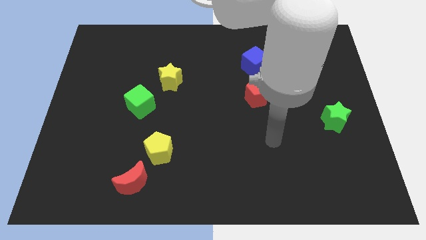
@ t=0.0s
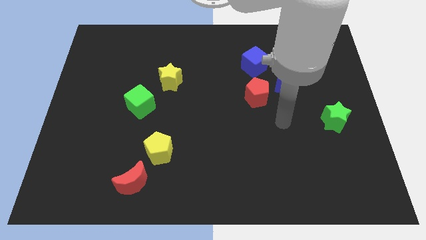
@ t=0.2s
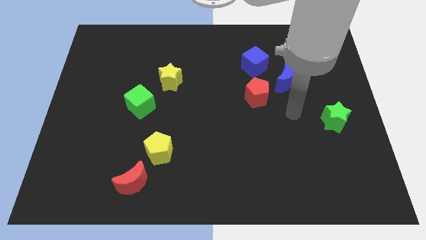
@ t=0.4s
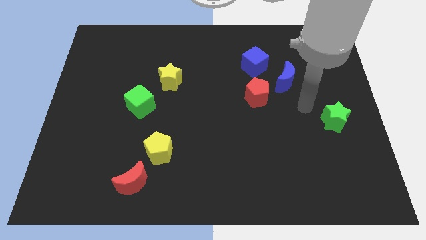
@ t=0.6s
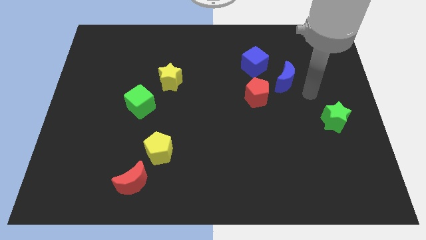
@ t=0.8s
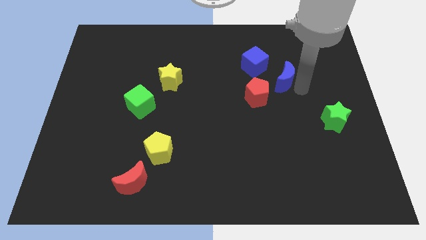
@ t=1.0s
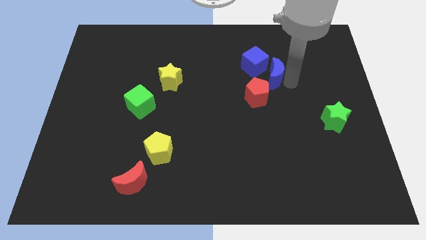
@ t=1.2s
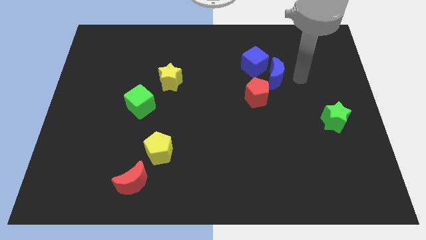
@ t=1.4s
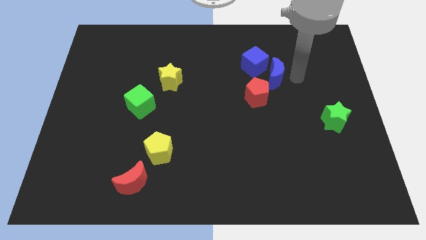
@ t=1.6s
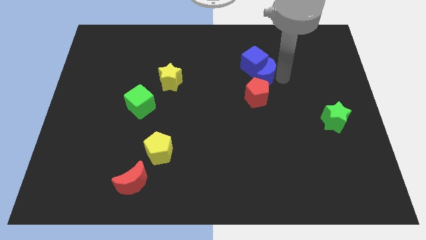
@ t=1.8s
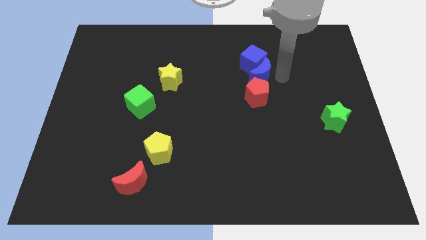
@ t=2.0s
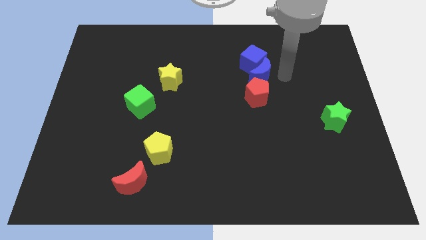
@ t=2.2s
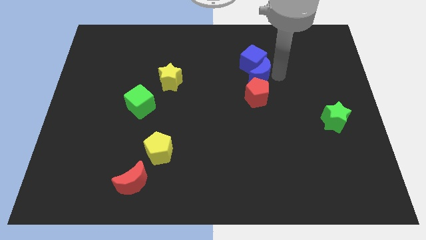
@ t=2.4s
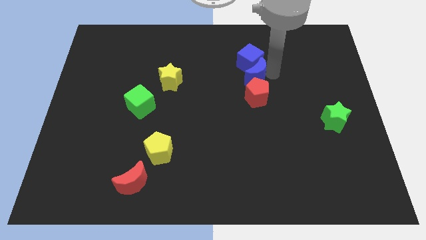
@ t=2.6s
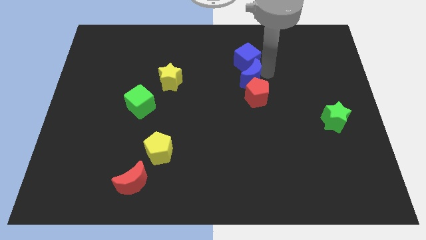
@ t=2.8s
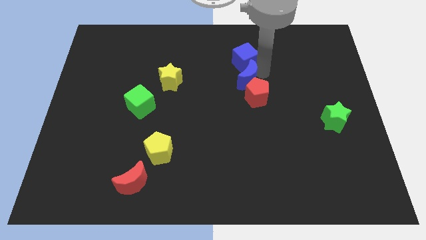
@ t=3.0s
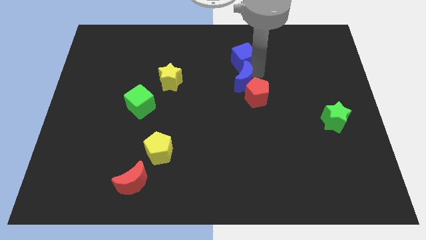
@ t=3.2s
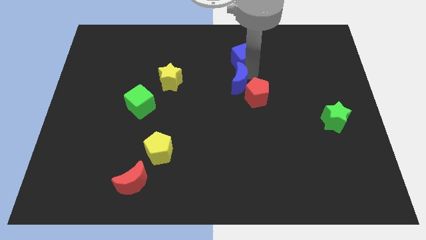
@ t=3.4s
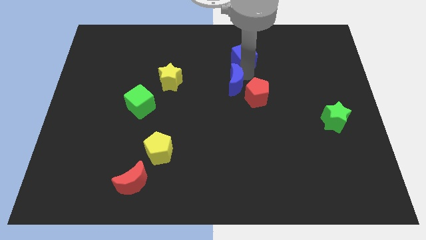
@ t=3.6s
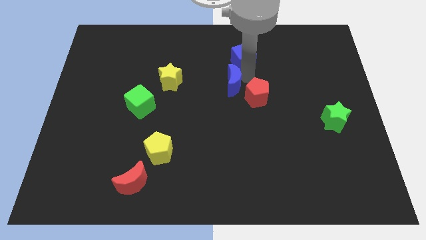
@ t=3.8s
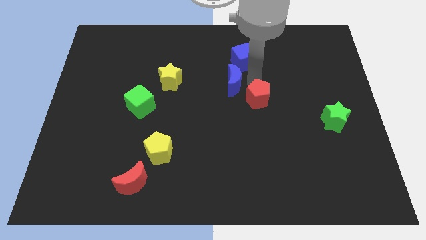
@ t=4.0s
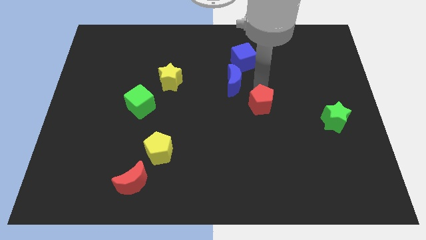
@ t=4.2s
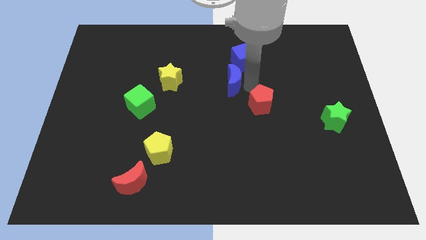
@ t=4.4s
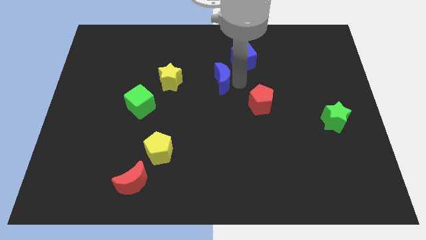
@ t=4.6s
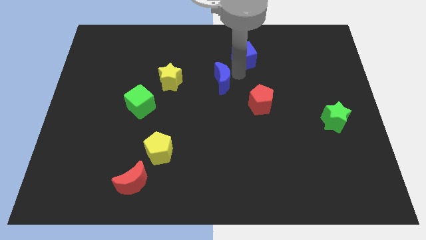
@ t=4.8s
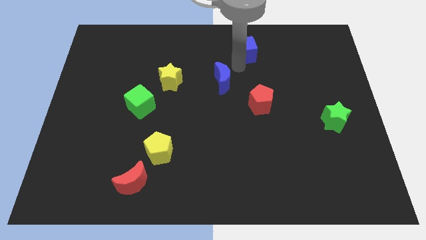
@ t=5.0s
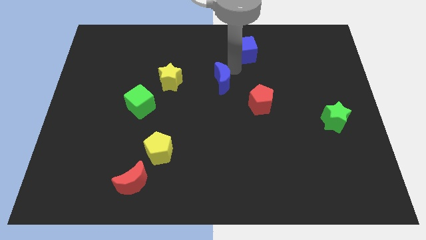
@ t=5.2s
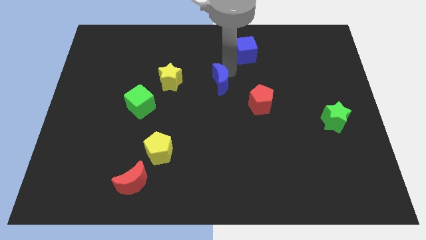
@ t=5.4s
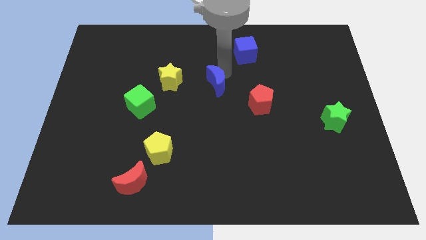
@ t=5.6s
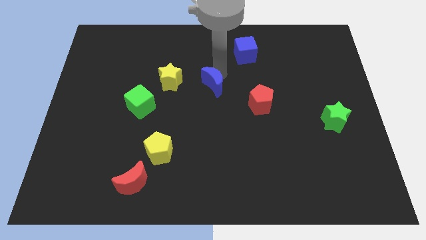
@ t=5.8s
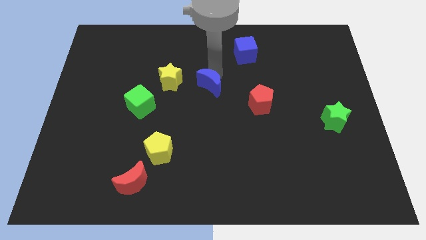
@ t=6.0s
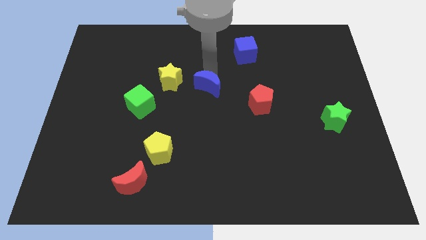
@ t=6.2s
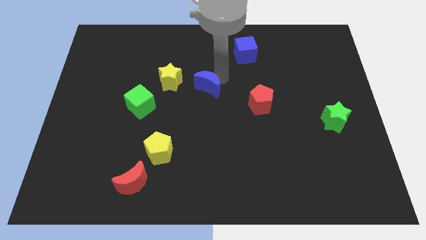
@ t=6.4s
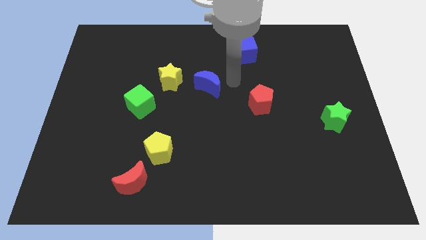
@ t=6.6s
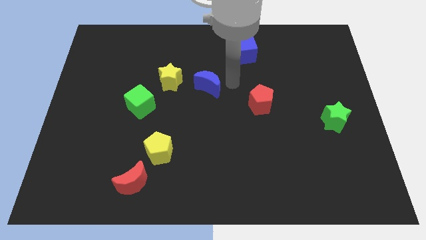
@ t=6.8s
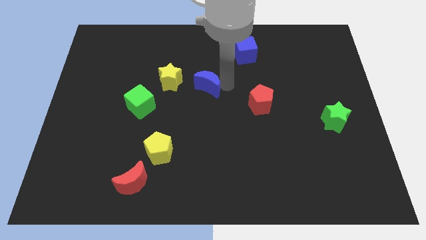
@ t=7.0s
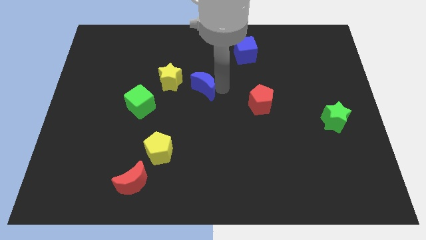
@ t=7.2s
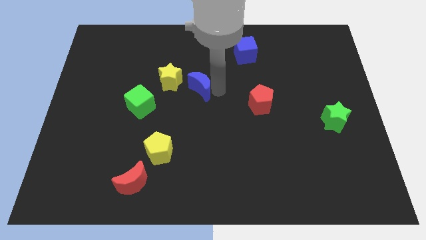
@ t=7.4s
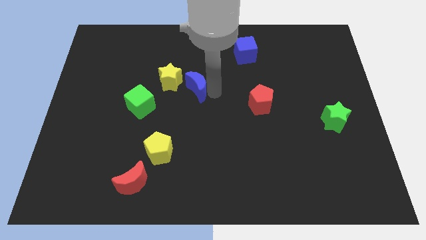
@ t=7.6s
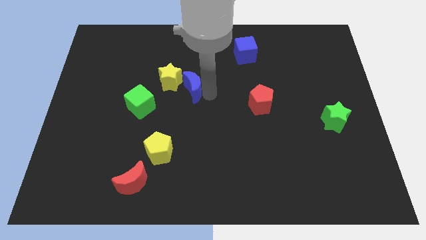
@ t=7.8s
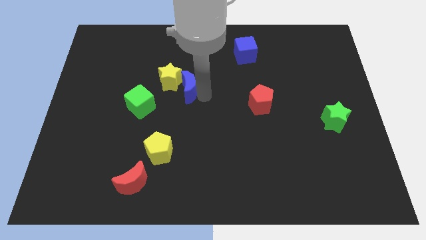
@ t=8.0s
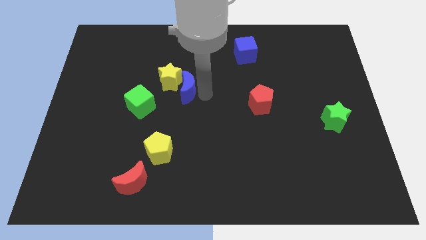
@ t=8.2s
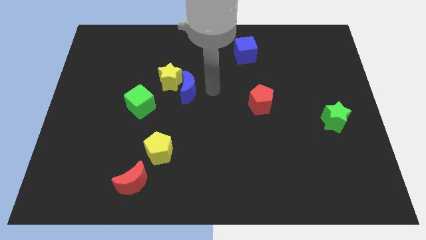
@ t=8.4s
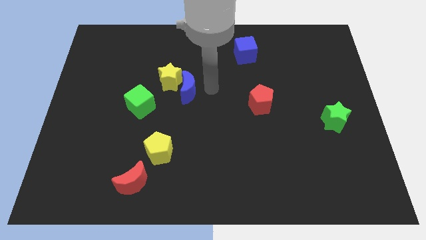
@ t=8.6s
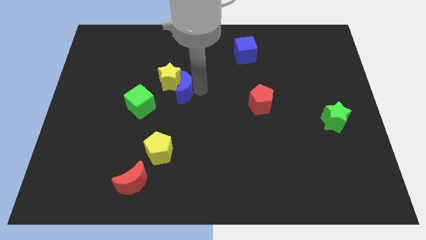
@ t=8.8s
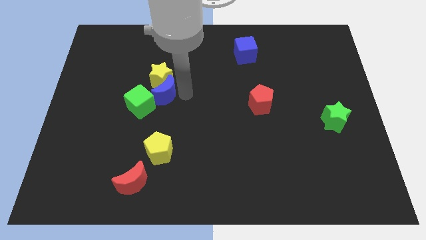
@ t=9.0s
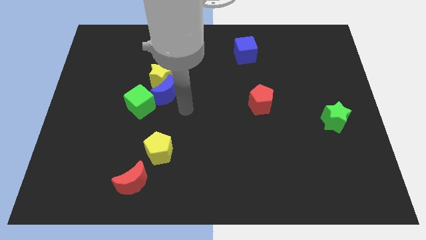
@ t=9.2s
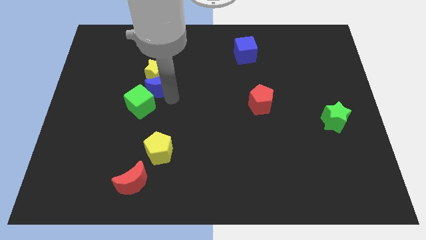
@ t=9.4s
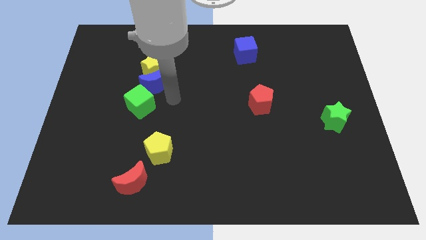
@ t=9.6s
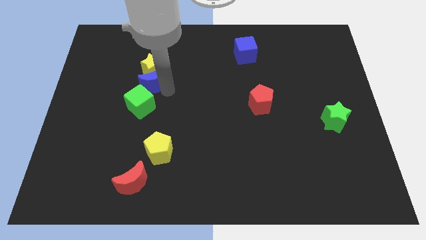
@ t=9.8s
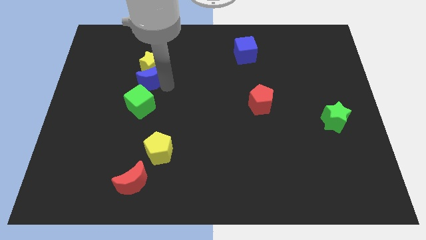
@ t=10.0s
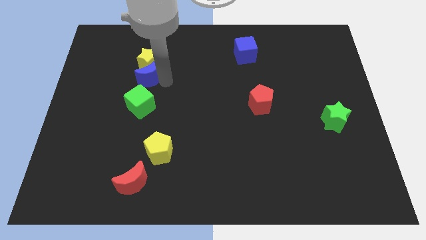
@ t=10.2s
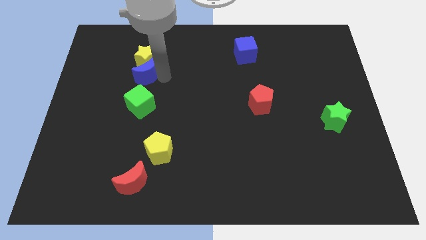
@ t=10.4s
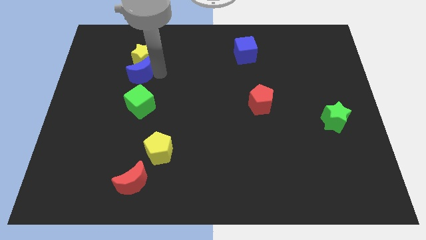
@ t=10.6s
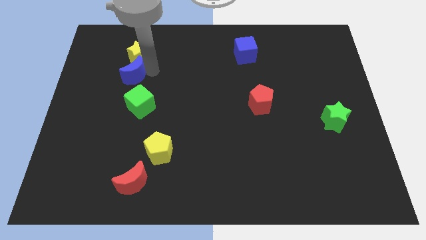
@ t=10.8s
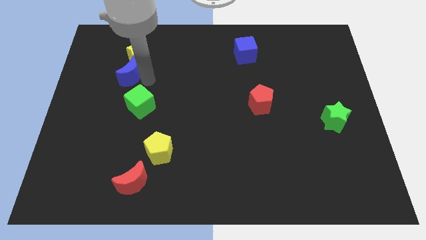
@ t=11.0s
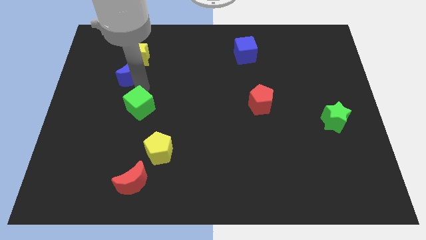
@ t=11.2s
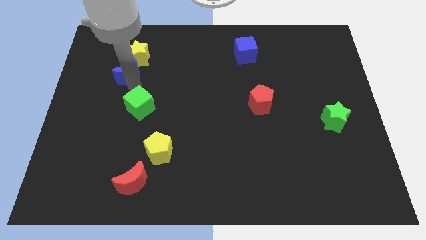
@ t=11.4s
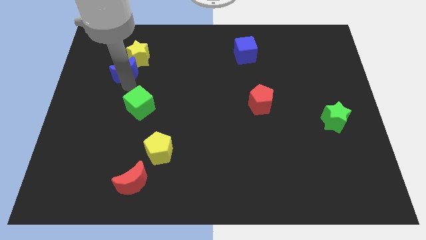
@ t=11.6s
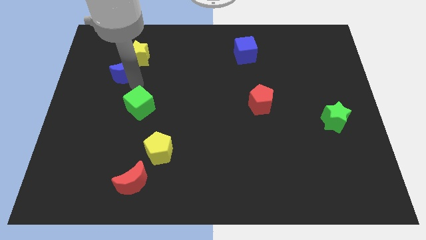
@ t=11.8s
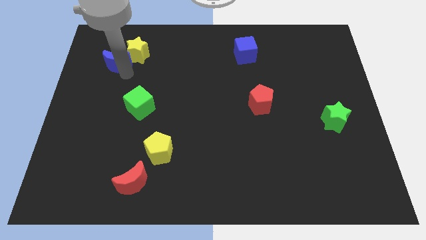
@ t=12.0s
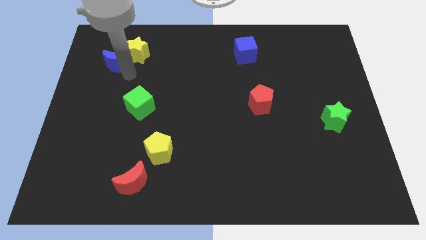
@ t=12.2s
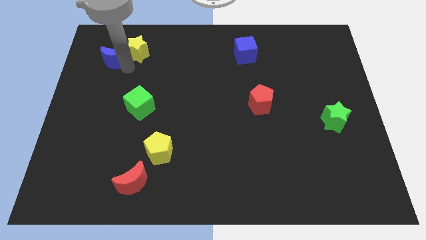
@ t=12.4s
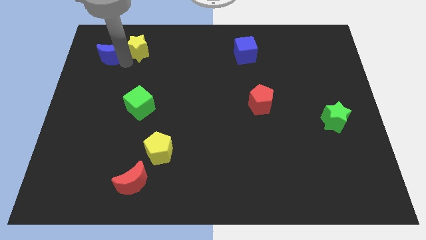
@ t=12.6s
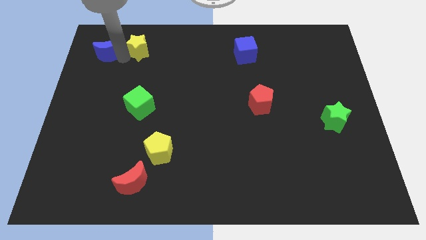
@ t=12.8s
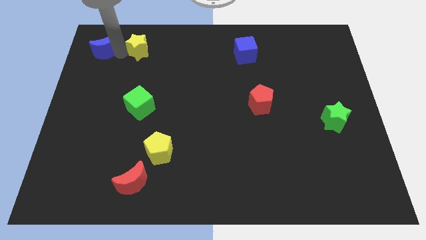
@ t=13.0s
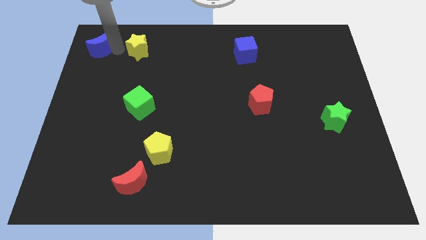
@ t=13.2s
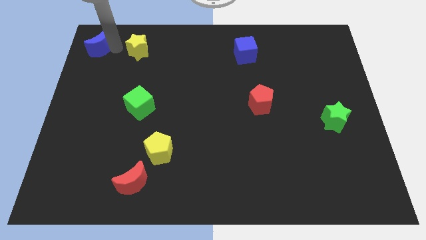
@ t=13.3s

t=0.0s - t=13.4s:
slide the blue moon to the top left corner
